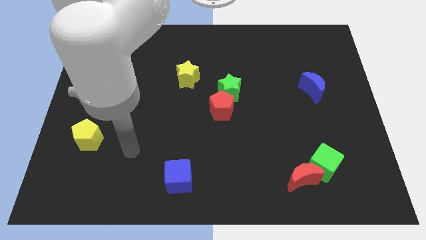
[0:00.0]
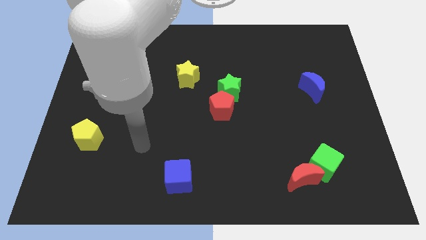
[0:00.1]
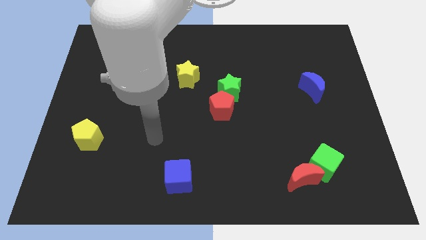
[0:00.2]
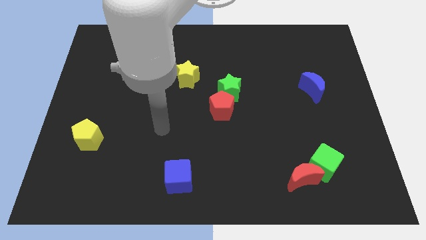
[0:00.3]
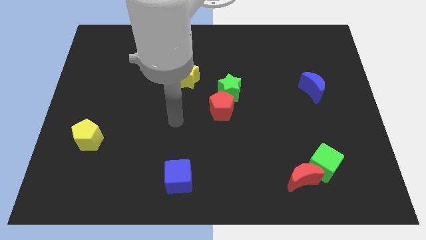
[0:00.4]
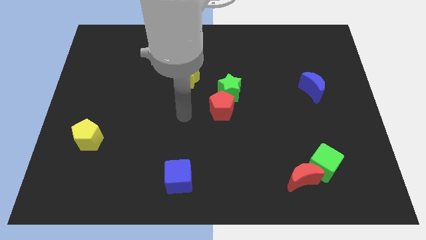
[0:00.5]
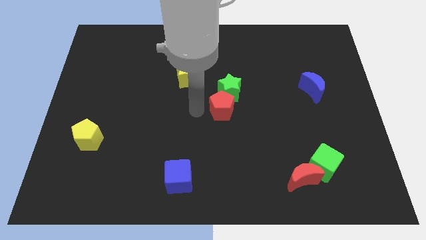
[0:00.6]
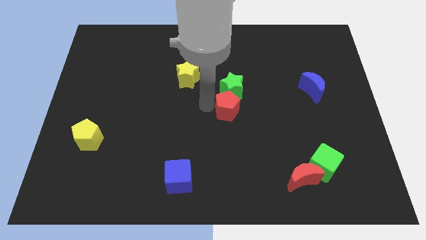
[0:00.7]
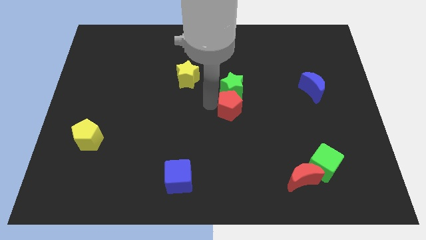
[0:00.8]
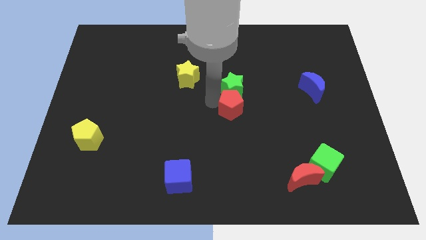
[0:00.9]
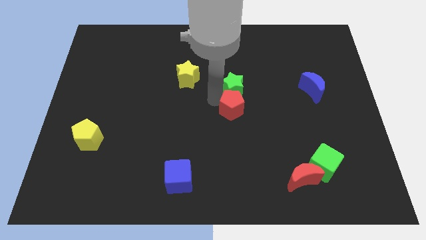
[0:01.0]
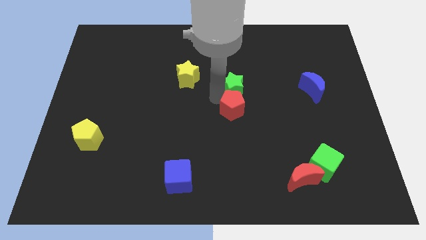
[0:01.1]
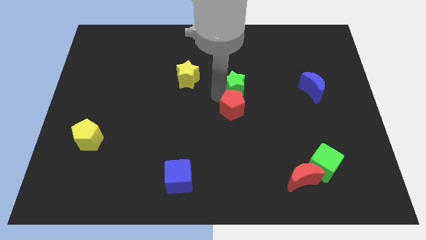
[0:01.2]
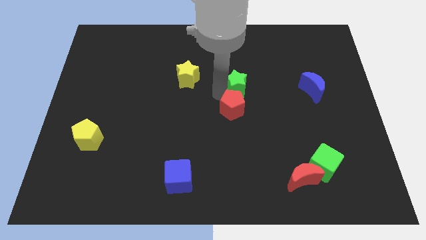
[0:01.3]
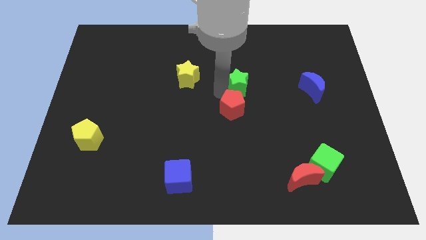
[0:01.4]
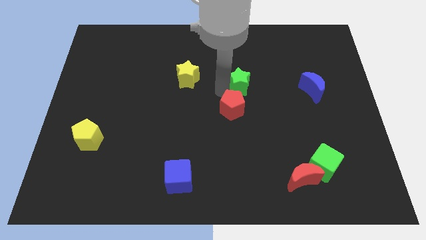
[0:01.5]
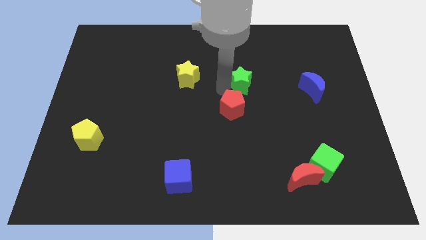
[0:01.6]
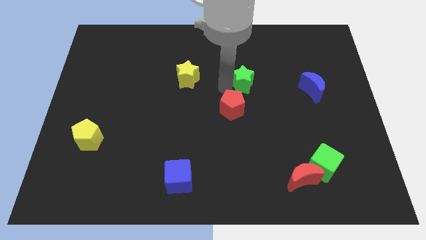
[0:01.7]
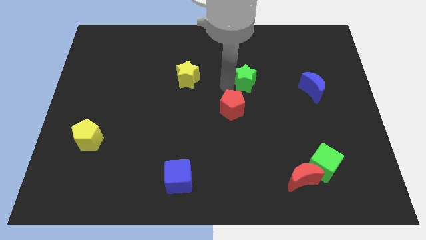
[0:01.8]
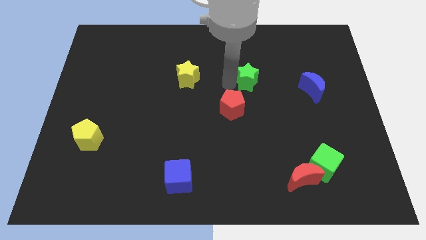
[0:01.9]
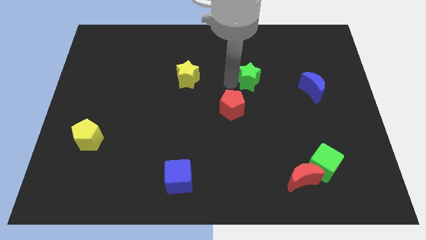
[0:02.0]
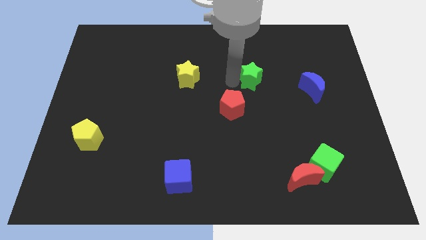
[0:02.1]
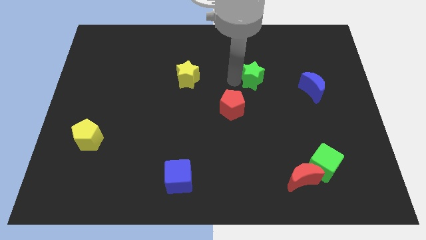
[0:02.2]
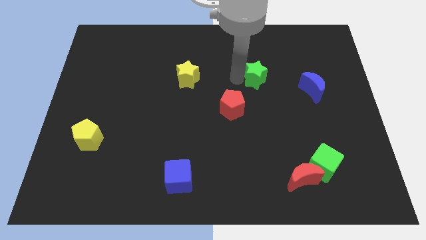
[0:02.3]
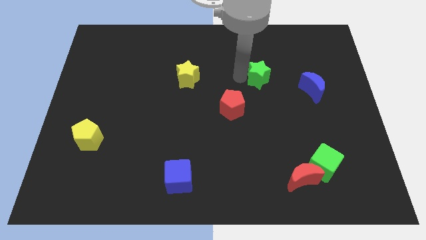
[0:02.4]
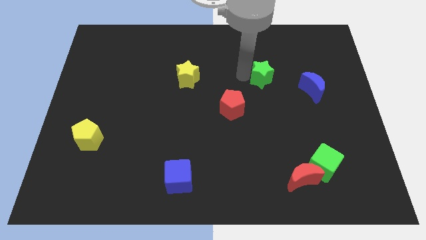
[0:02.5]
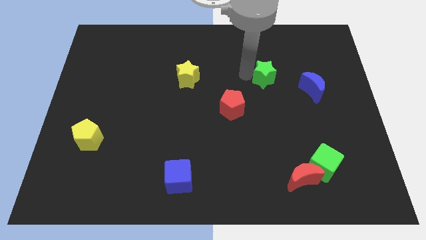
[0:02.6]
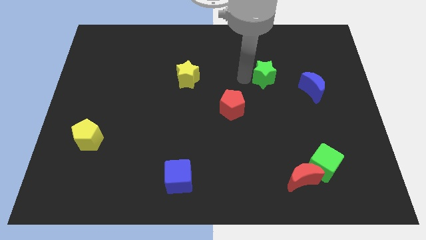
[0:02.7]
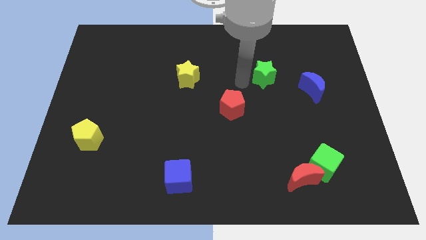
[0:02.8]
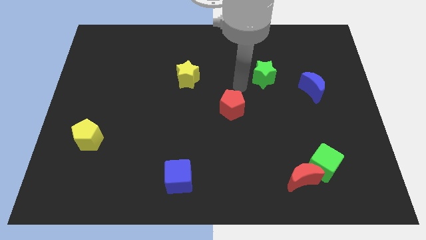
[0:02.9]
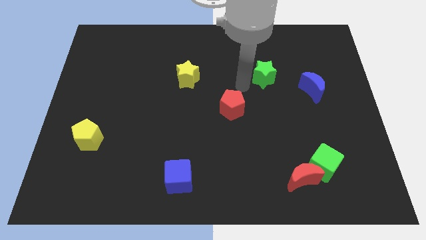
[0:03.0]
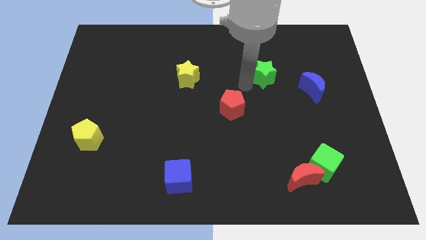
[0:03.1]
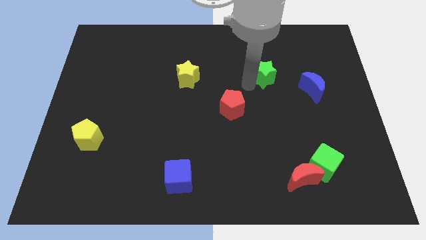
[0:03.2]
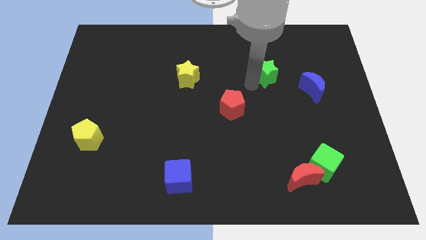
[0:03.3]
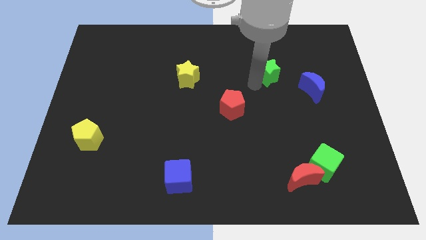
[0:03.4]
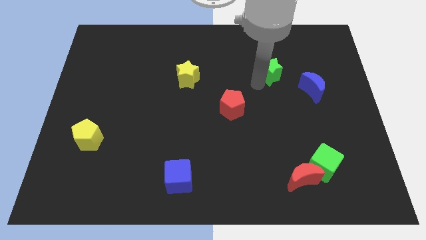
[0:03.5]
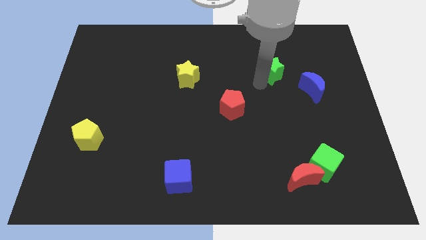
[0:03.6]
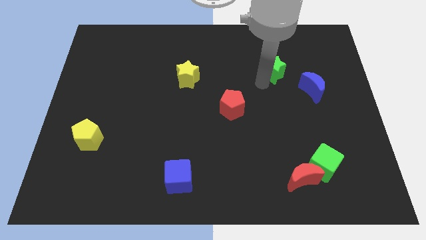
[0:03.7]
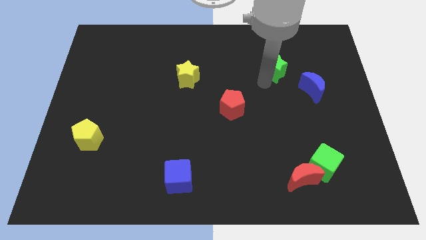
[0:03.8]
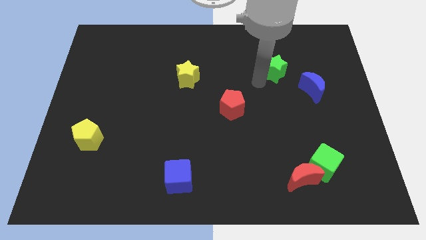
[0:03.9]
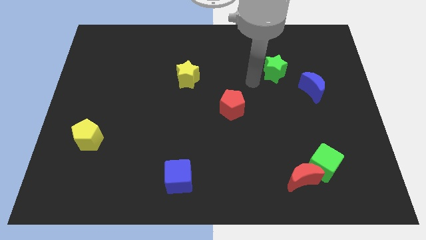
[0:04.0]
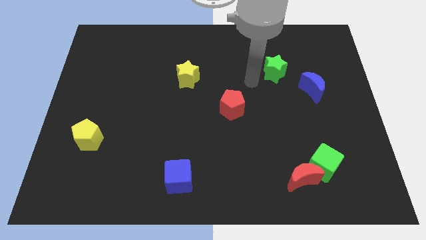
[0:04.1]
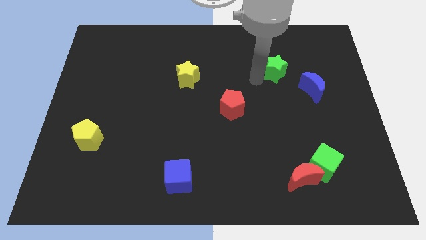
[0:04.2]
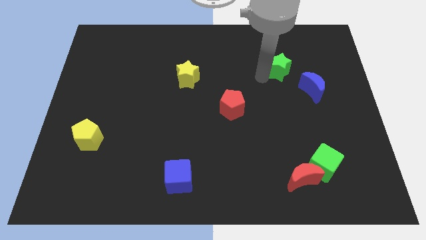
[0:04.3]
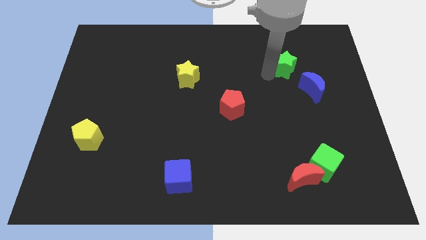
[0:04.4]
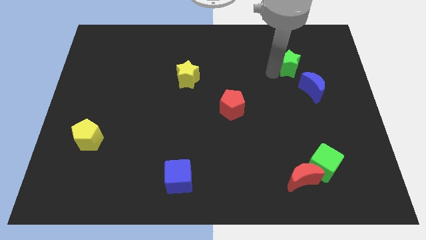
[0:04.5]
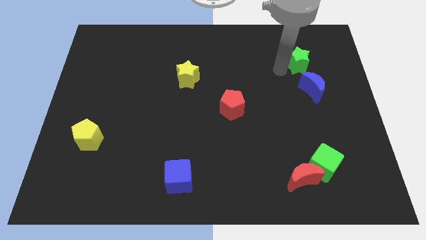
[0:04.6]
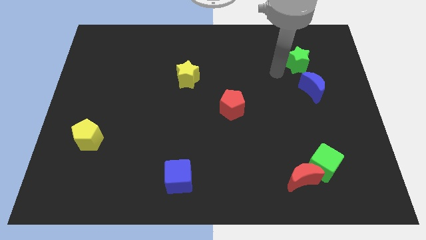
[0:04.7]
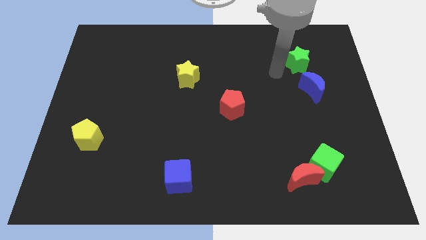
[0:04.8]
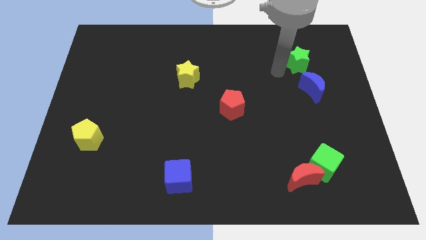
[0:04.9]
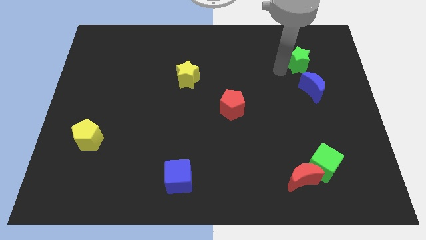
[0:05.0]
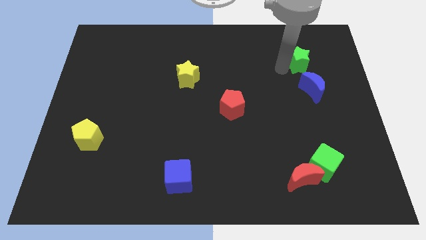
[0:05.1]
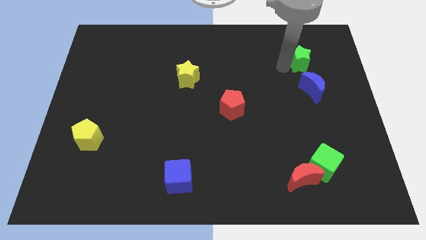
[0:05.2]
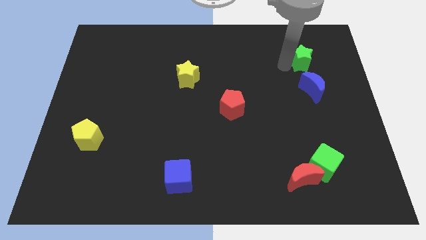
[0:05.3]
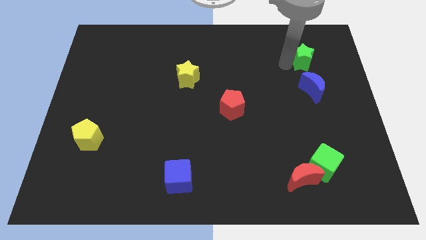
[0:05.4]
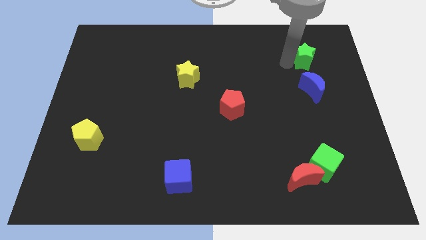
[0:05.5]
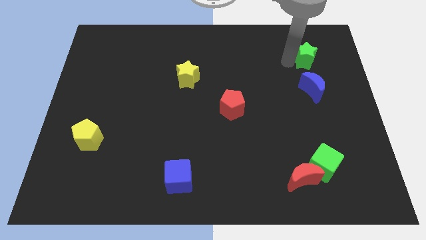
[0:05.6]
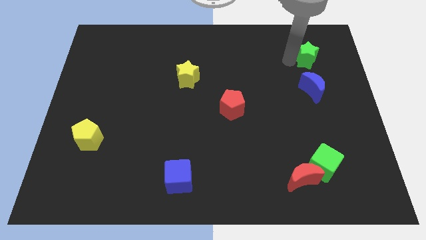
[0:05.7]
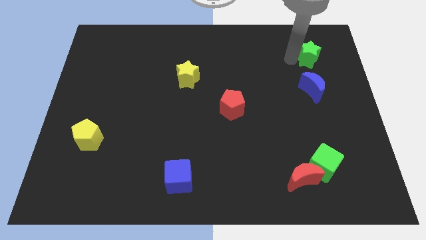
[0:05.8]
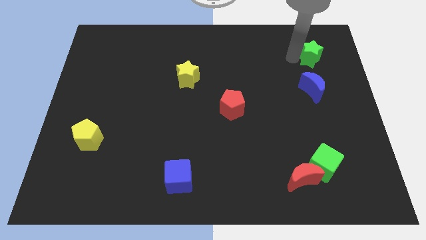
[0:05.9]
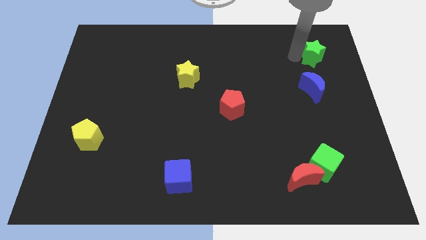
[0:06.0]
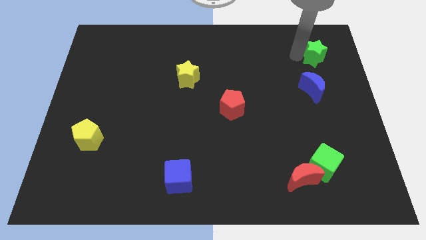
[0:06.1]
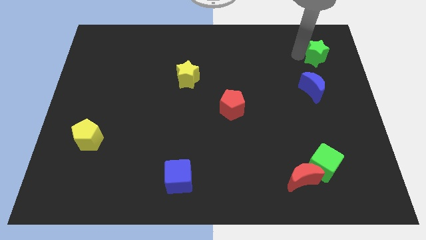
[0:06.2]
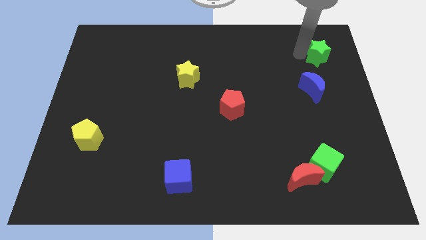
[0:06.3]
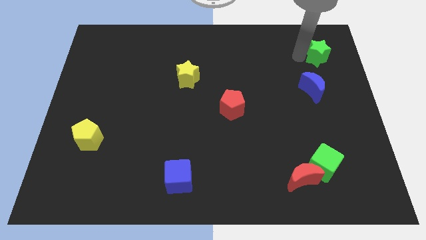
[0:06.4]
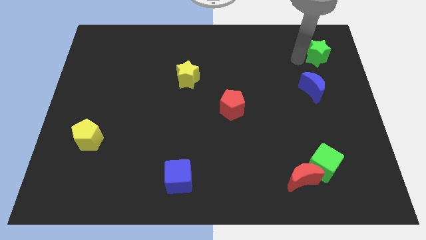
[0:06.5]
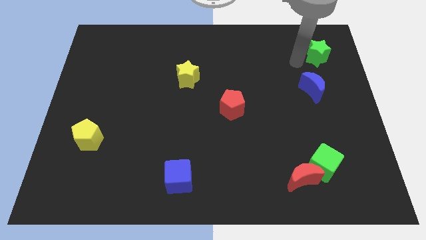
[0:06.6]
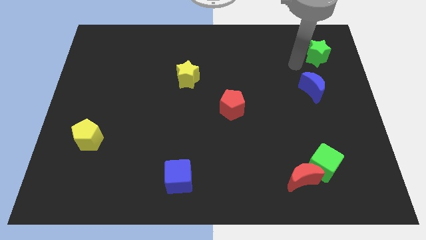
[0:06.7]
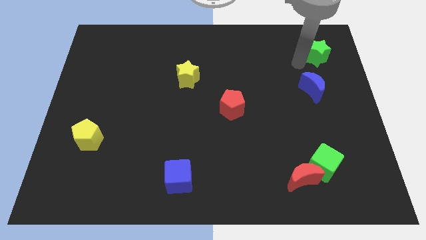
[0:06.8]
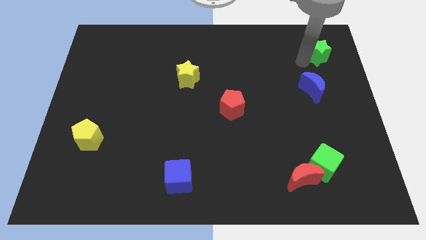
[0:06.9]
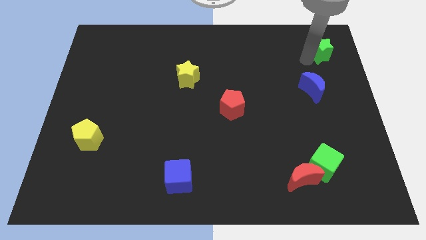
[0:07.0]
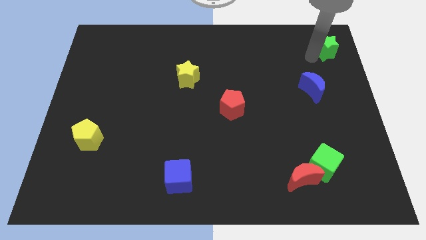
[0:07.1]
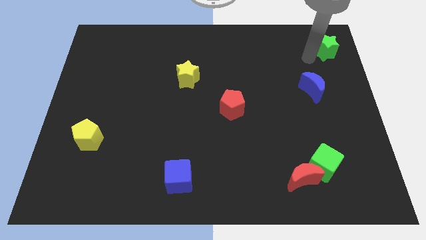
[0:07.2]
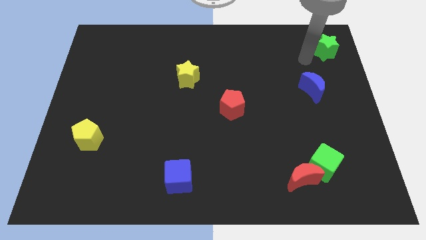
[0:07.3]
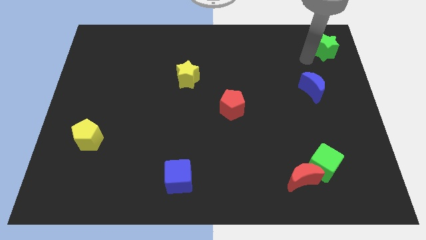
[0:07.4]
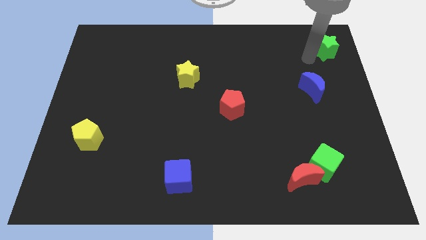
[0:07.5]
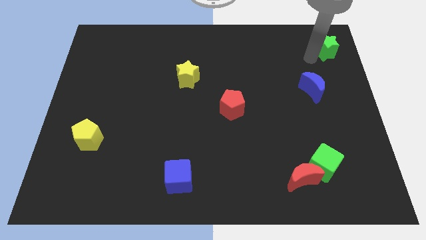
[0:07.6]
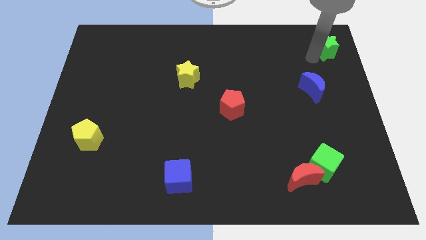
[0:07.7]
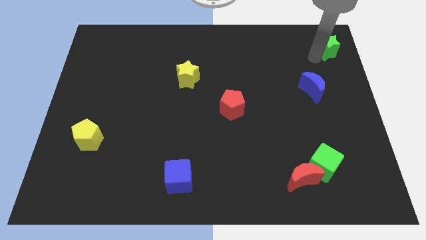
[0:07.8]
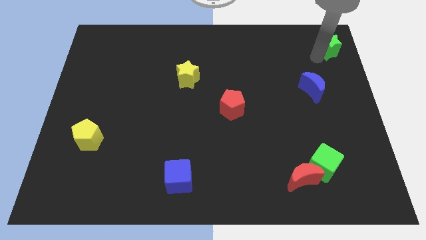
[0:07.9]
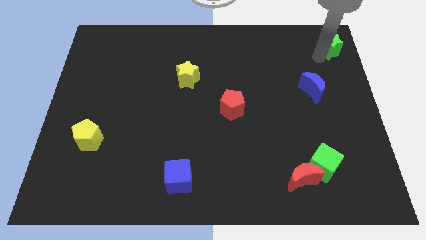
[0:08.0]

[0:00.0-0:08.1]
push the green star to the upper right corner
